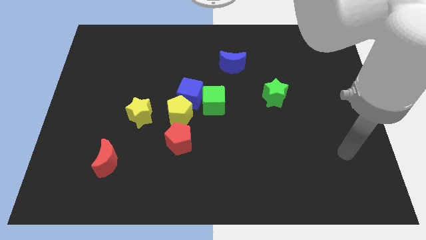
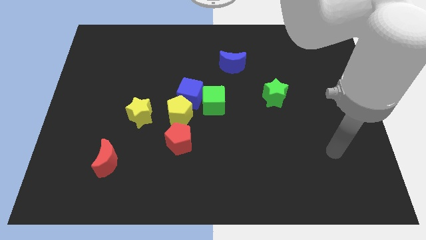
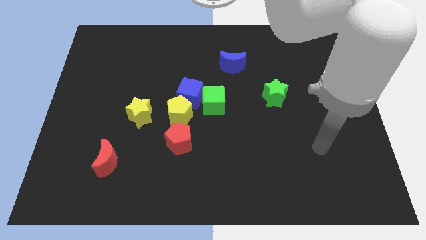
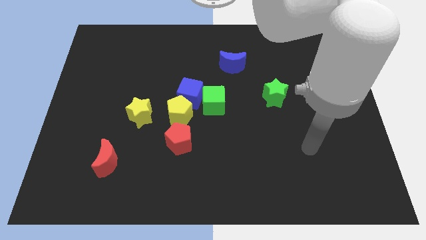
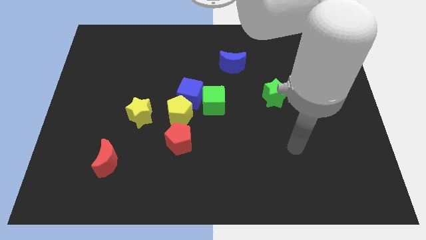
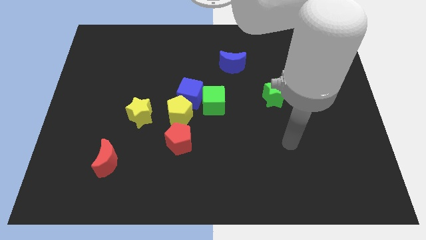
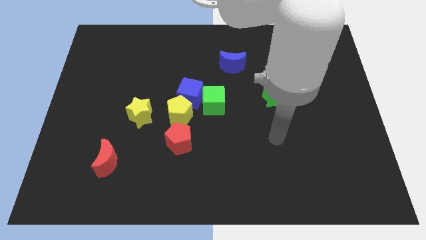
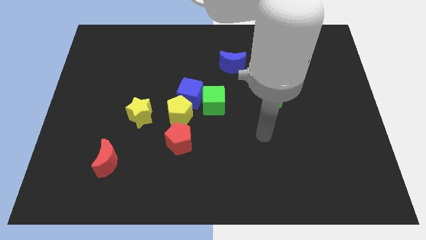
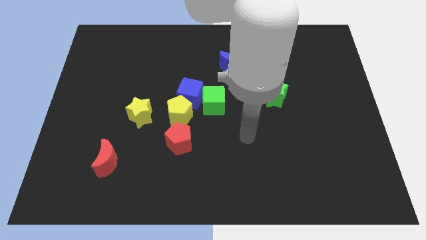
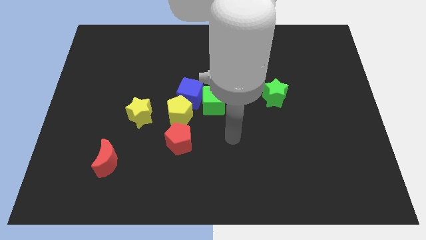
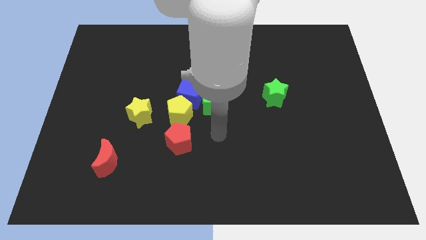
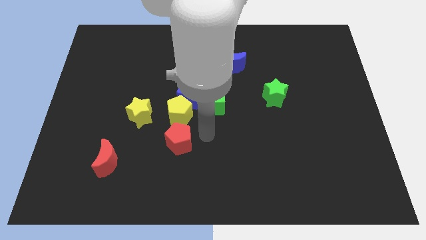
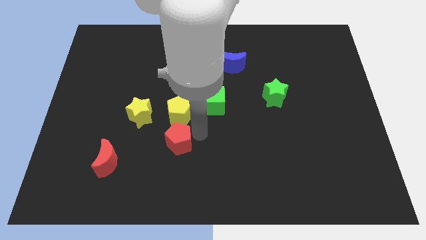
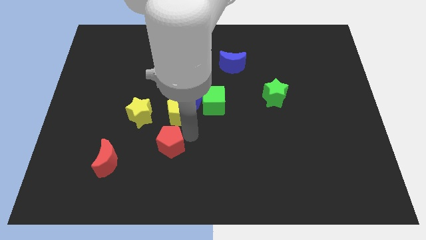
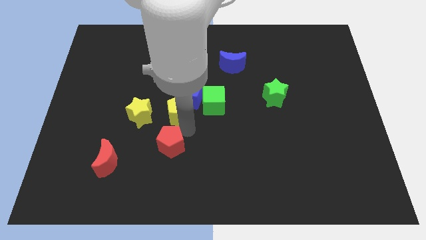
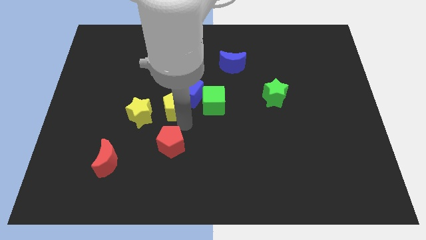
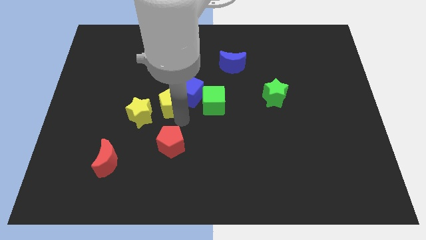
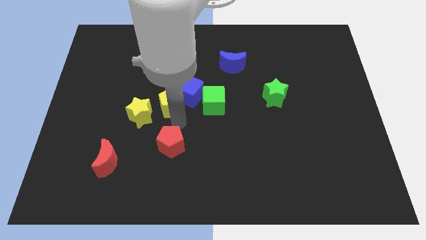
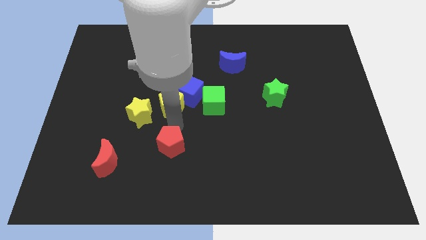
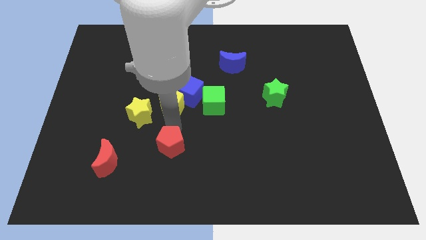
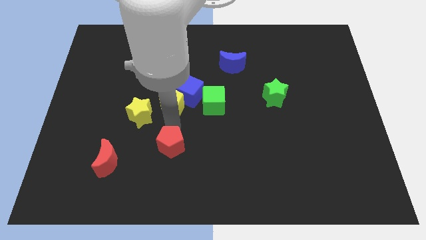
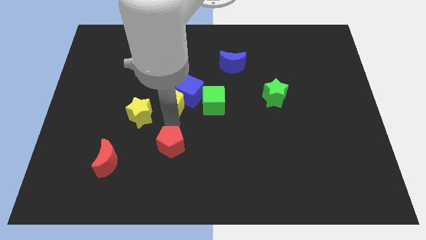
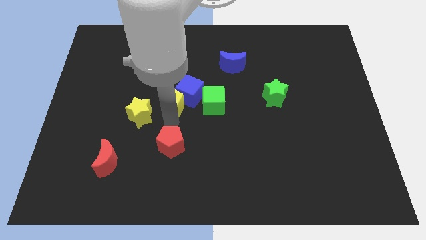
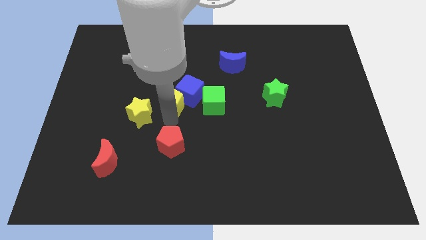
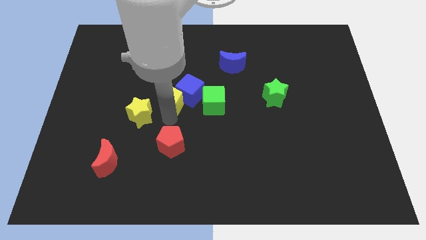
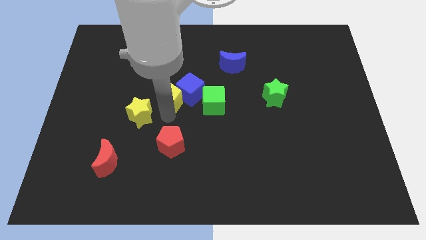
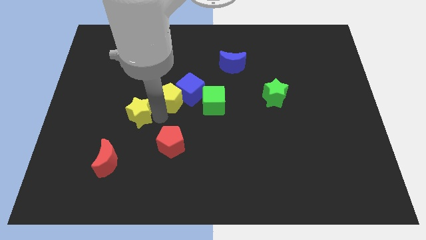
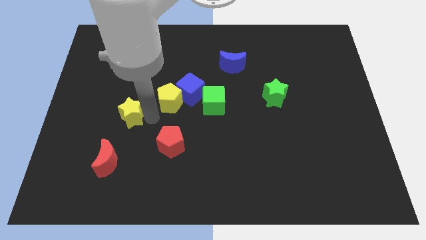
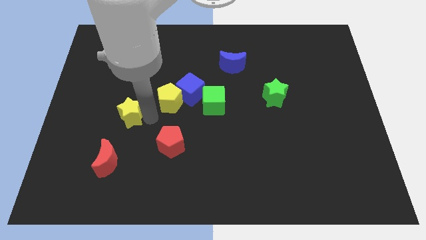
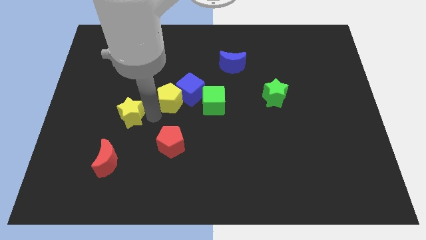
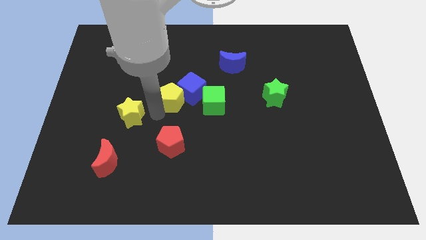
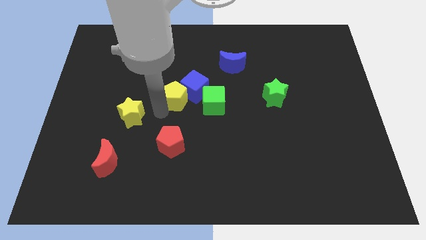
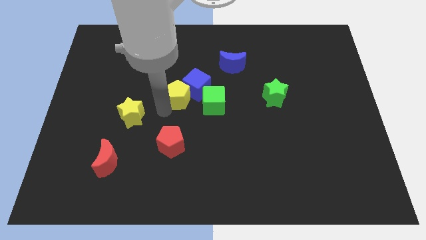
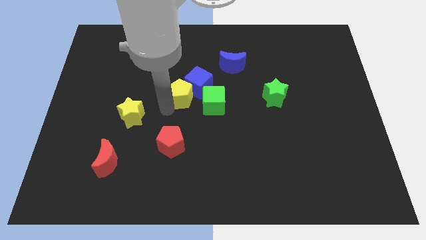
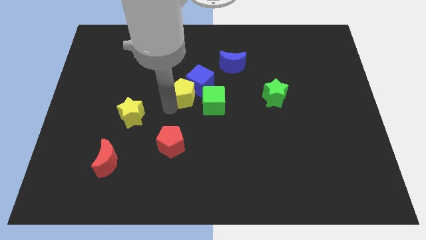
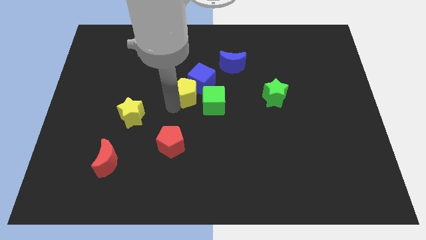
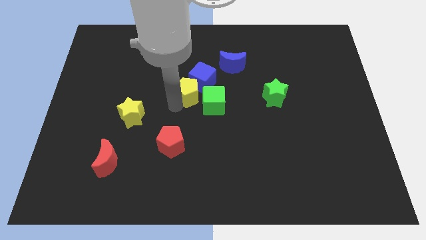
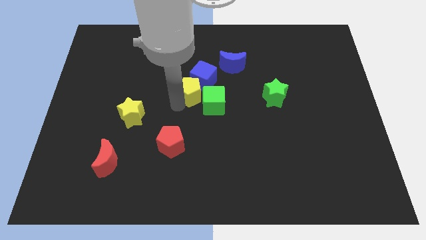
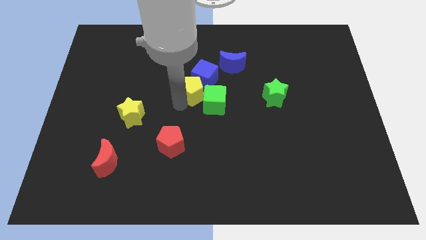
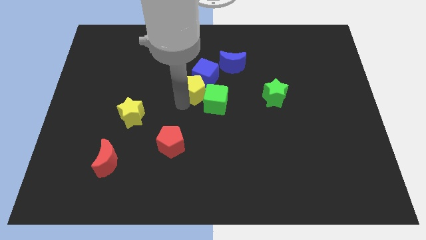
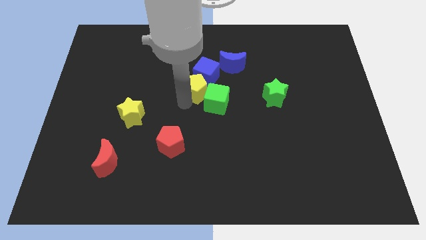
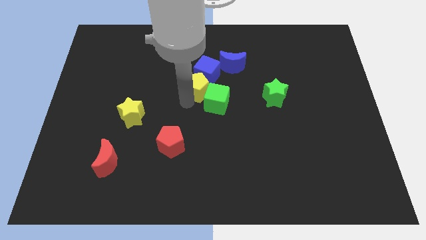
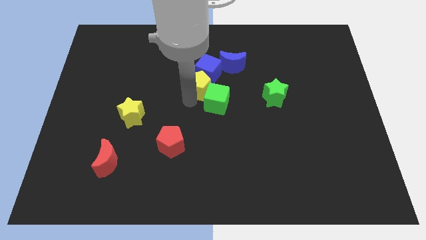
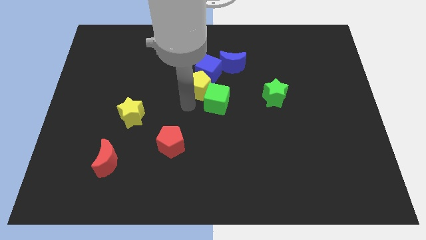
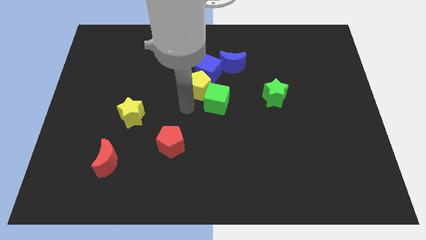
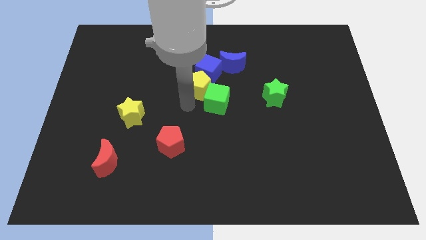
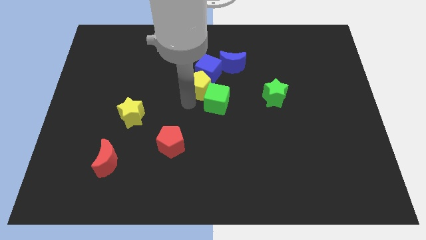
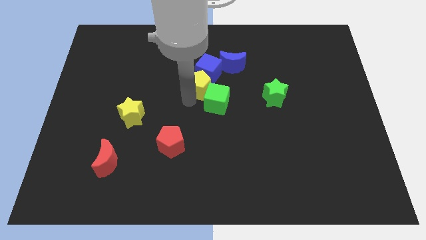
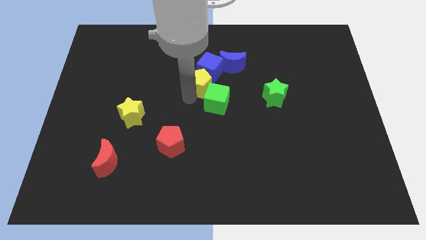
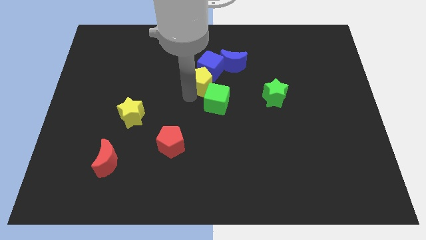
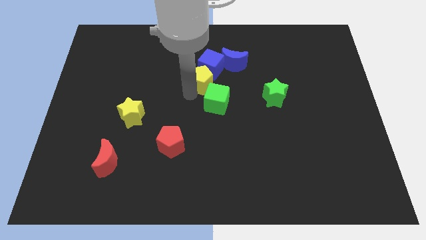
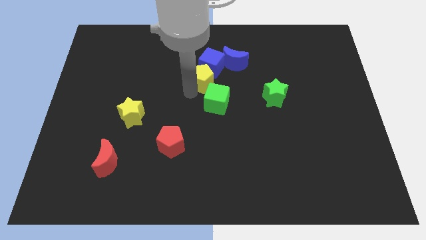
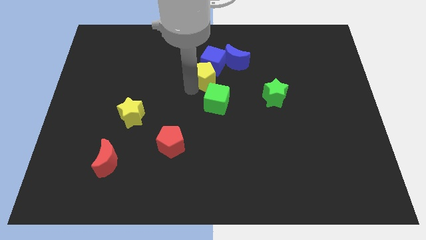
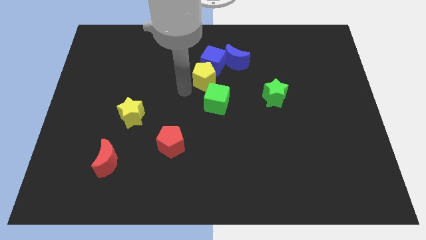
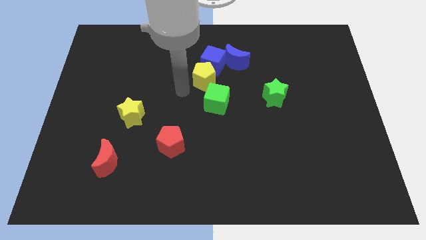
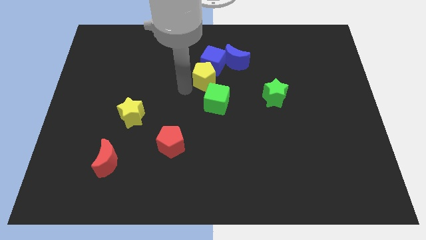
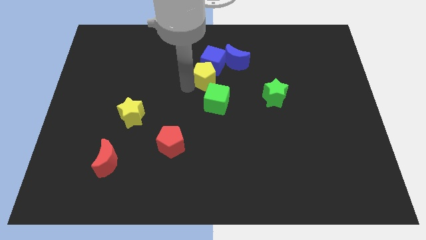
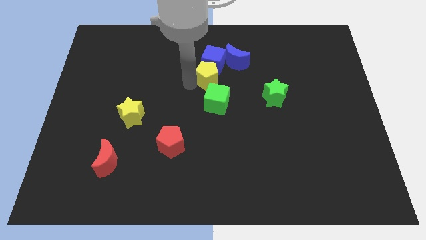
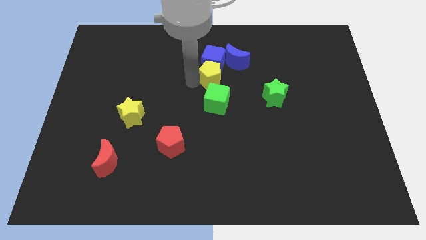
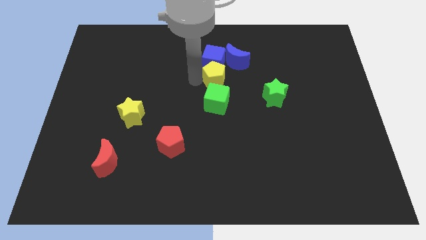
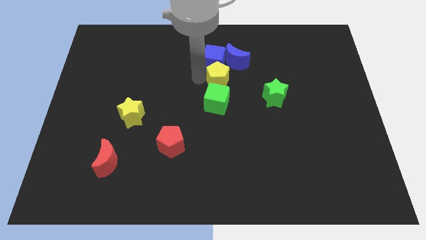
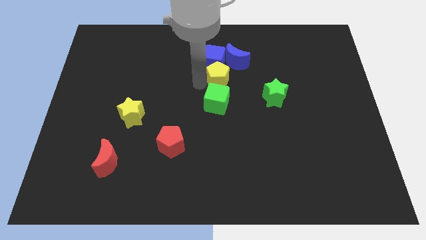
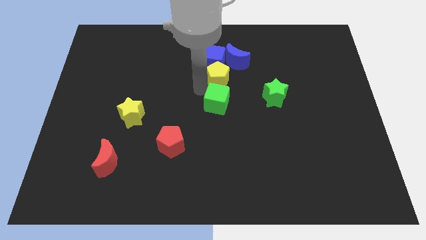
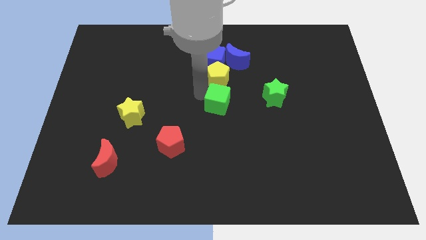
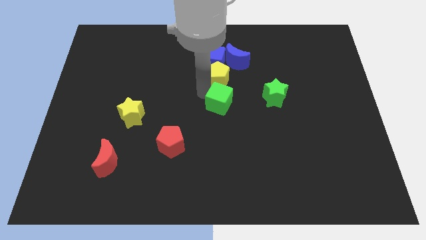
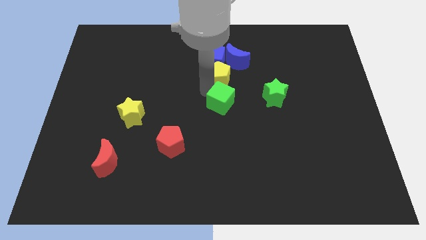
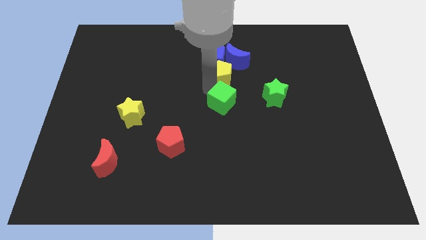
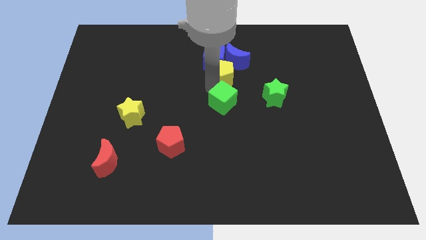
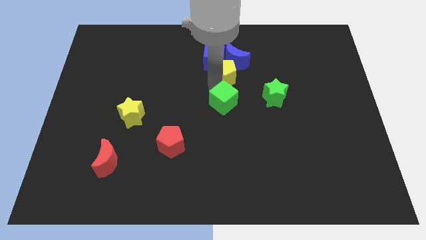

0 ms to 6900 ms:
move the yellow pentagon next to the blue moon
